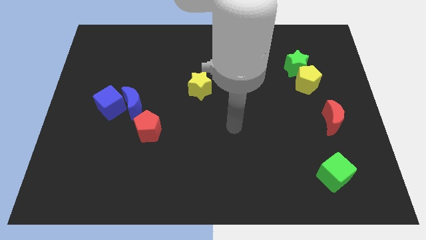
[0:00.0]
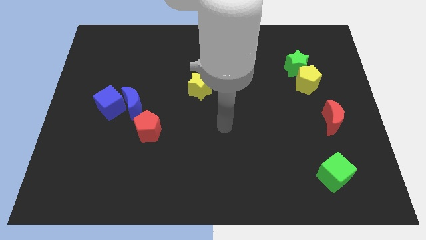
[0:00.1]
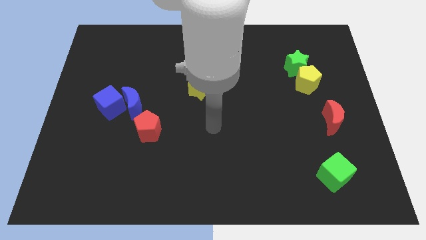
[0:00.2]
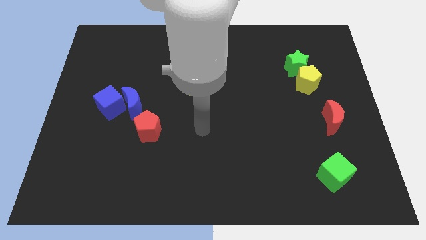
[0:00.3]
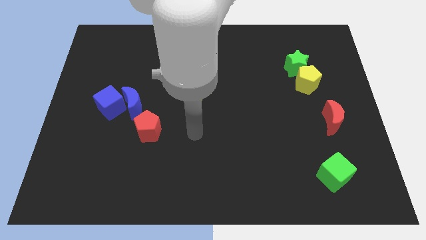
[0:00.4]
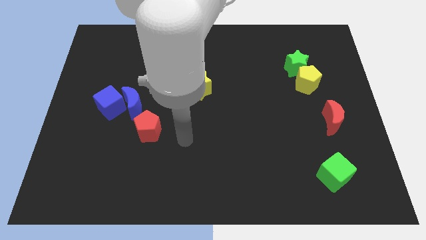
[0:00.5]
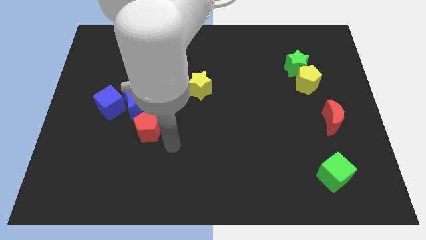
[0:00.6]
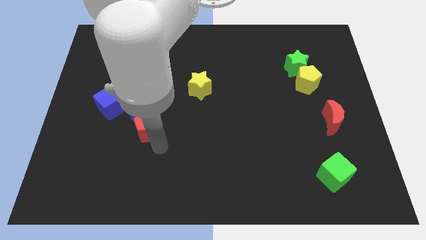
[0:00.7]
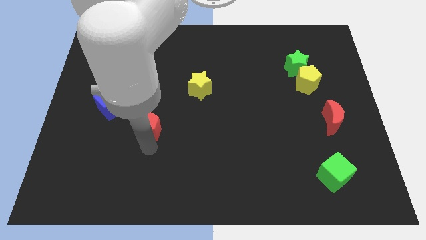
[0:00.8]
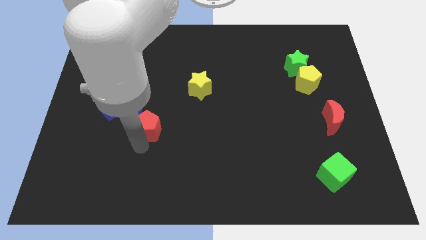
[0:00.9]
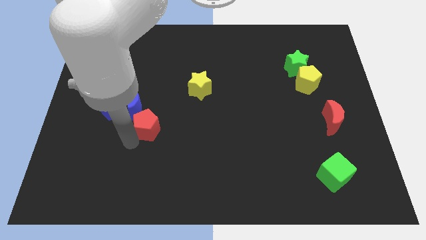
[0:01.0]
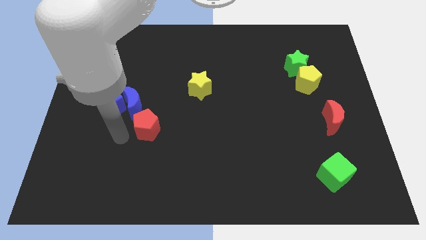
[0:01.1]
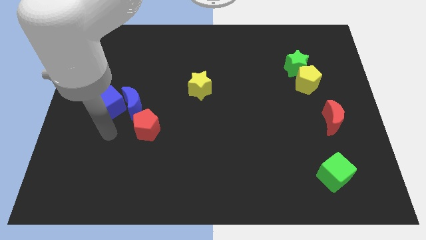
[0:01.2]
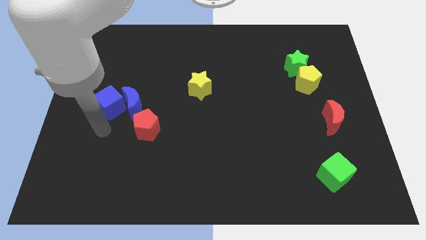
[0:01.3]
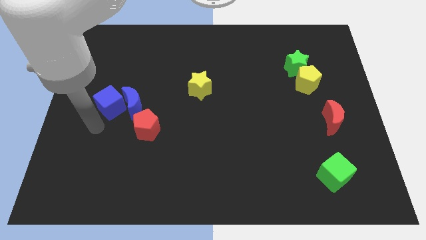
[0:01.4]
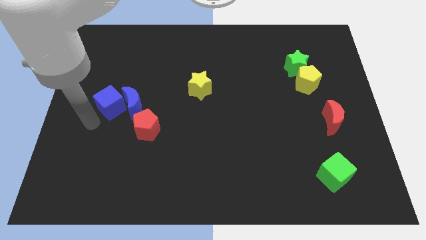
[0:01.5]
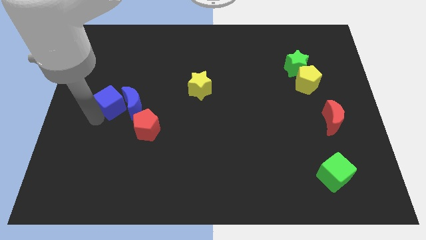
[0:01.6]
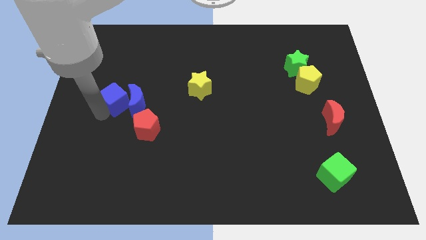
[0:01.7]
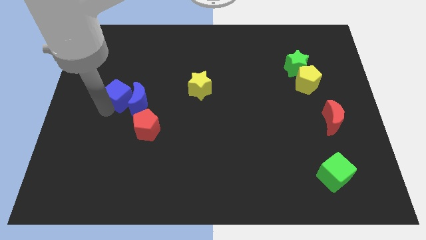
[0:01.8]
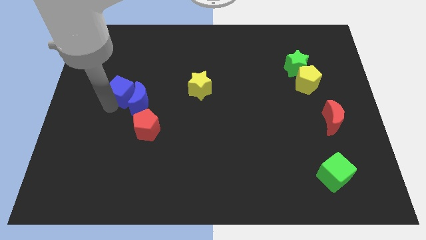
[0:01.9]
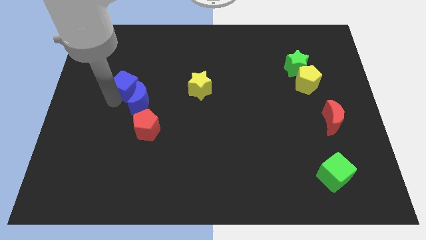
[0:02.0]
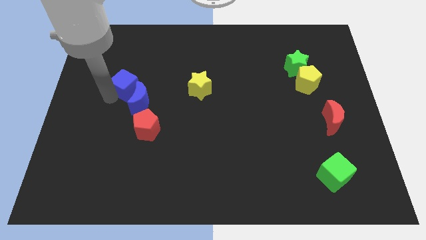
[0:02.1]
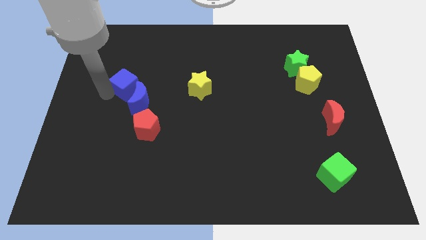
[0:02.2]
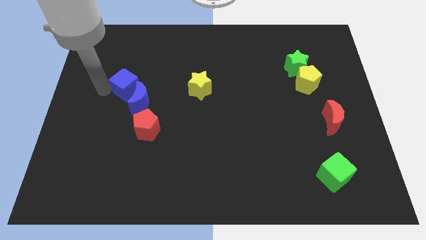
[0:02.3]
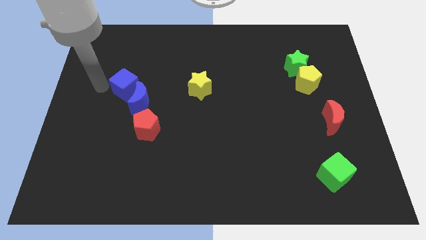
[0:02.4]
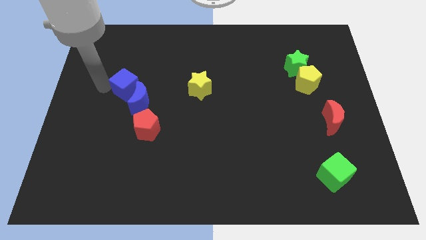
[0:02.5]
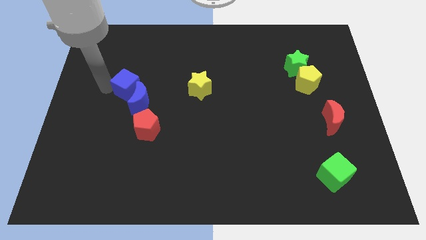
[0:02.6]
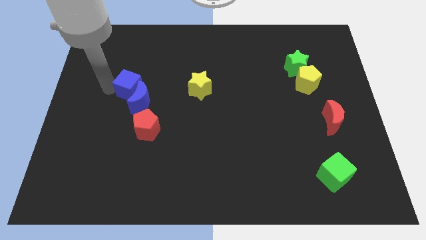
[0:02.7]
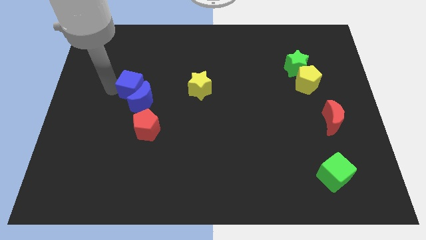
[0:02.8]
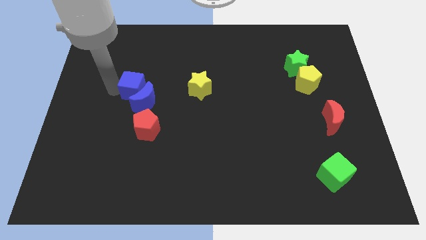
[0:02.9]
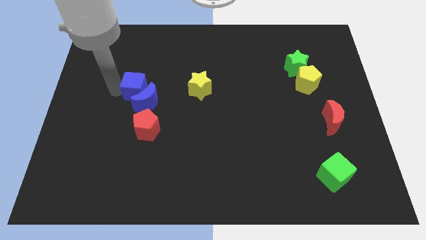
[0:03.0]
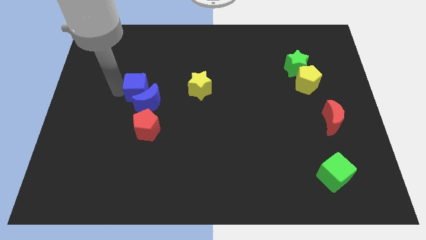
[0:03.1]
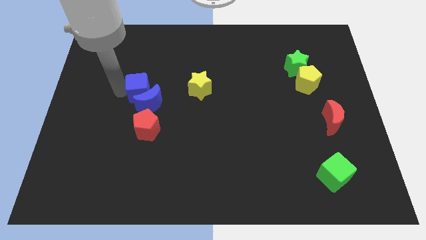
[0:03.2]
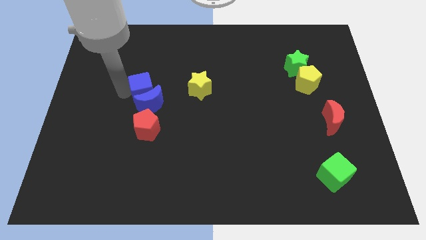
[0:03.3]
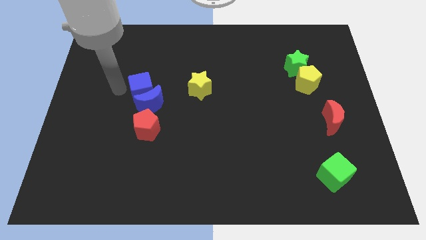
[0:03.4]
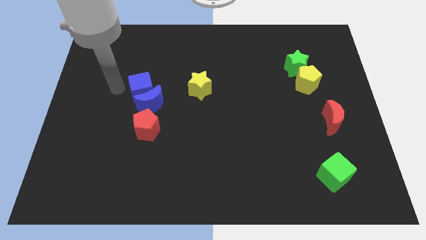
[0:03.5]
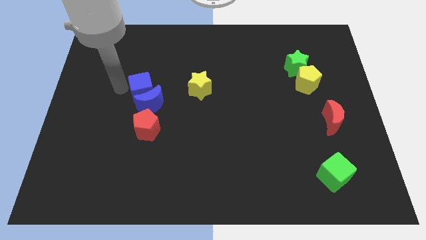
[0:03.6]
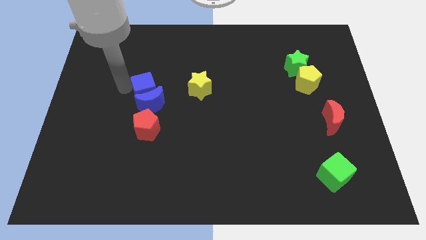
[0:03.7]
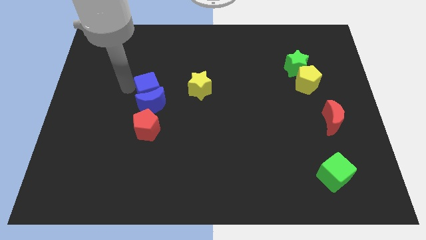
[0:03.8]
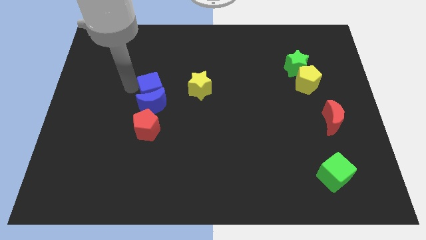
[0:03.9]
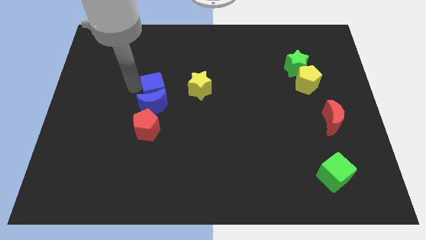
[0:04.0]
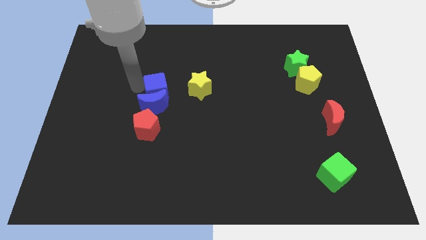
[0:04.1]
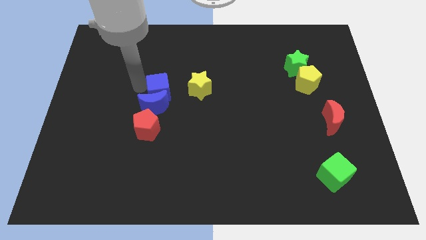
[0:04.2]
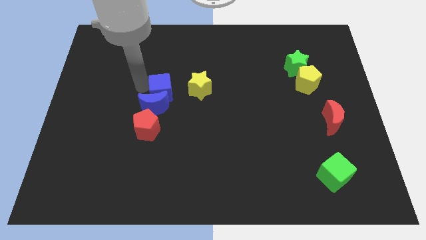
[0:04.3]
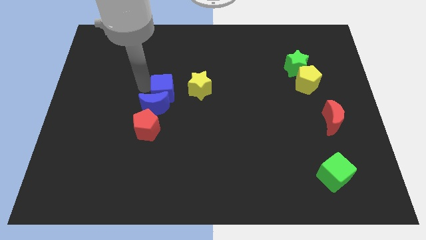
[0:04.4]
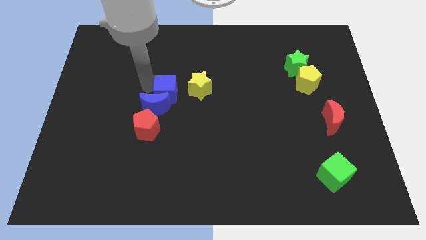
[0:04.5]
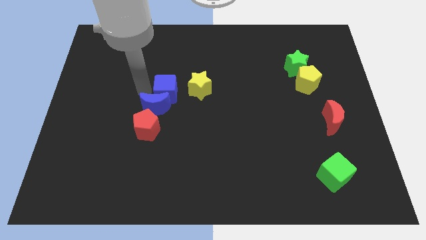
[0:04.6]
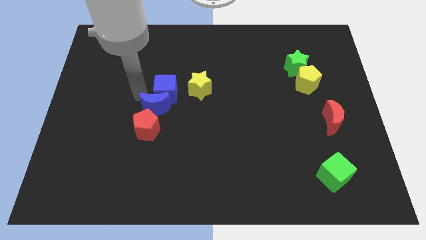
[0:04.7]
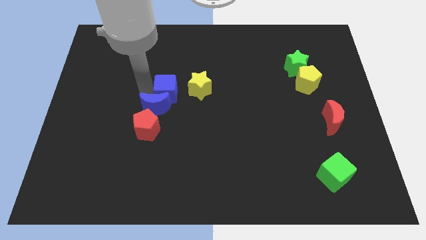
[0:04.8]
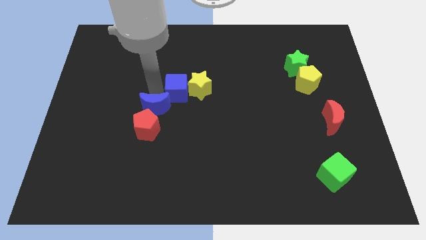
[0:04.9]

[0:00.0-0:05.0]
move the blue cube to the yellow star

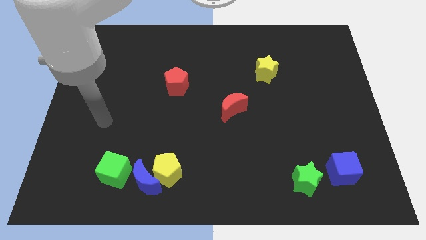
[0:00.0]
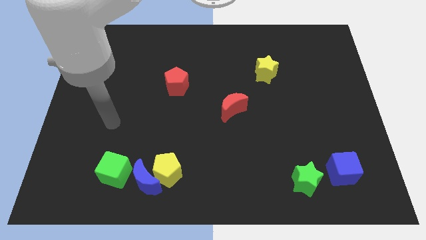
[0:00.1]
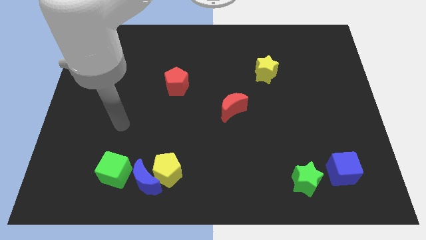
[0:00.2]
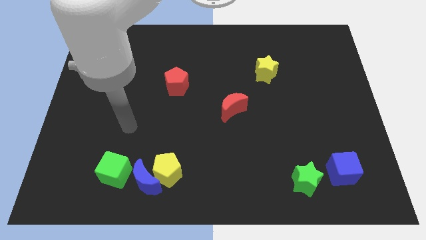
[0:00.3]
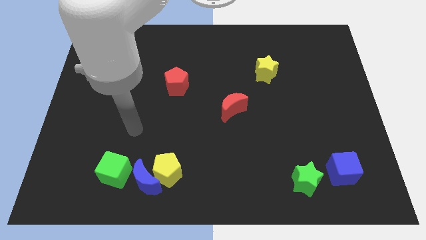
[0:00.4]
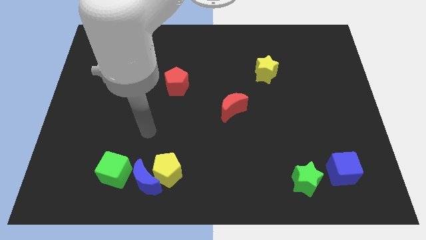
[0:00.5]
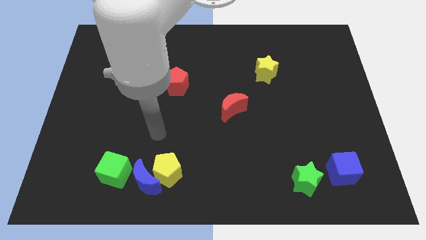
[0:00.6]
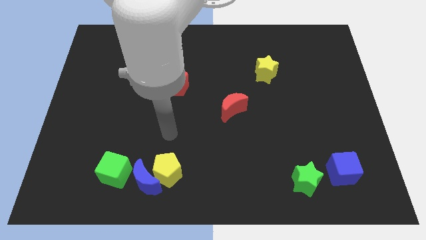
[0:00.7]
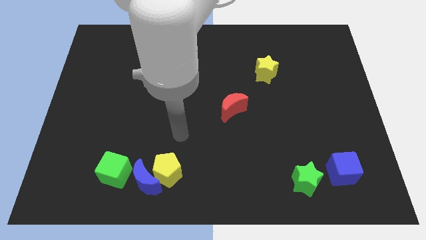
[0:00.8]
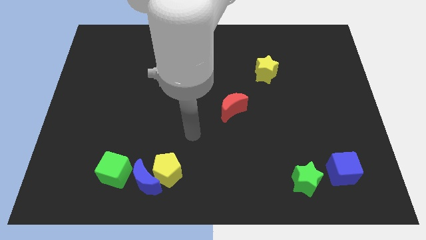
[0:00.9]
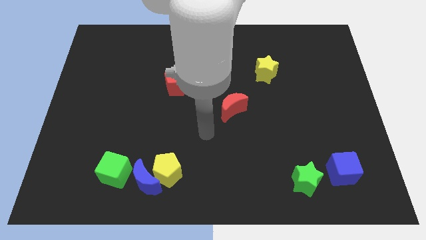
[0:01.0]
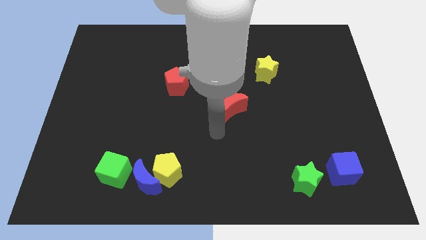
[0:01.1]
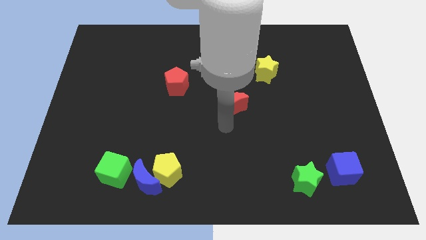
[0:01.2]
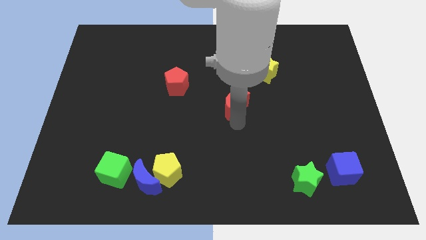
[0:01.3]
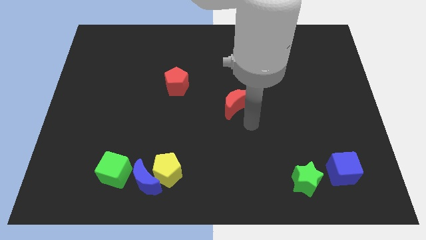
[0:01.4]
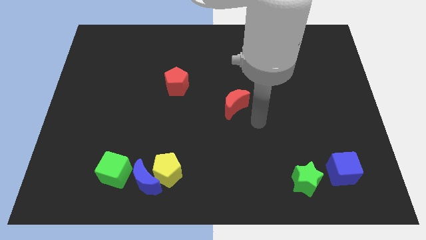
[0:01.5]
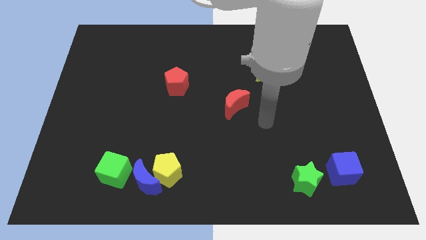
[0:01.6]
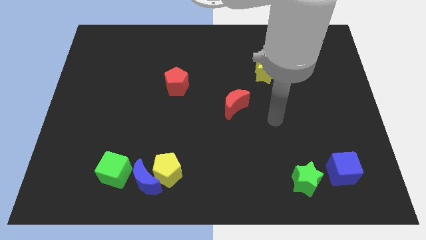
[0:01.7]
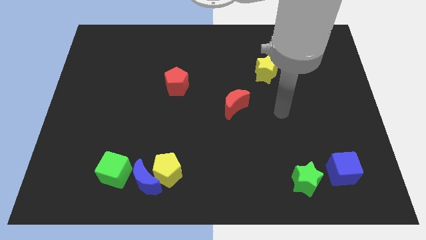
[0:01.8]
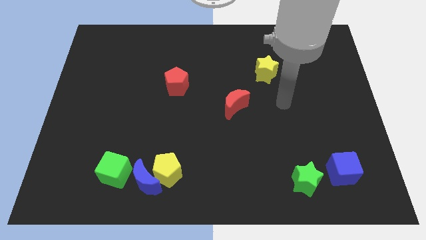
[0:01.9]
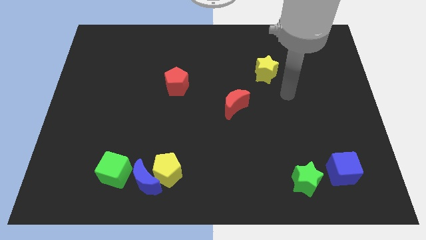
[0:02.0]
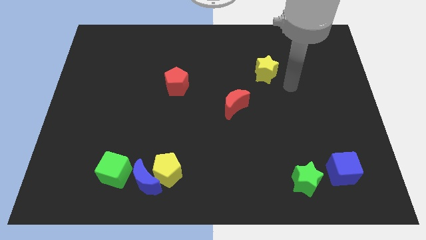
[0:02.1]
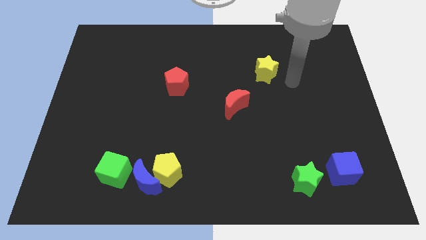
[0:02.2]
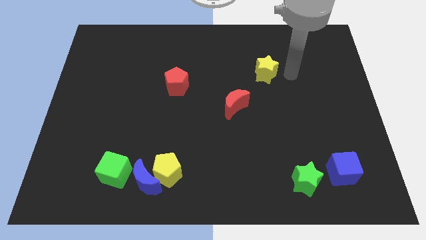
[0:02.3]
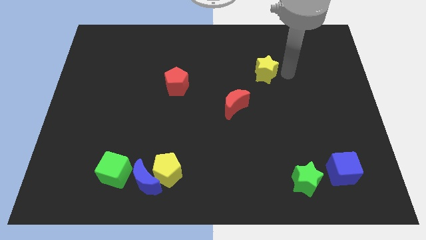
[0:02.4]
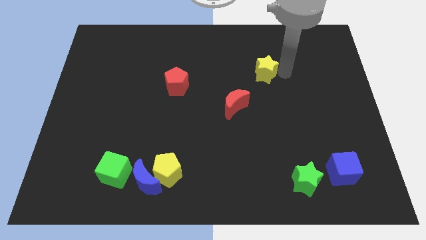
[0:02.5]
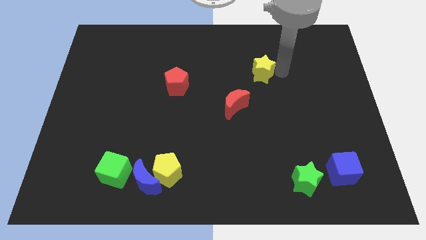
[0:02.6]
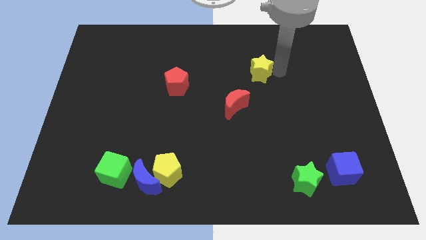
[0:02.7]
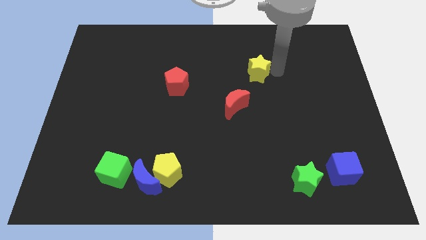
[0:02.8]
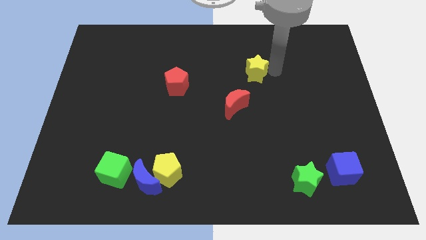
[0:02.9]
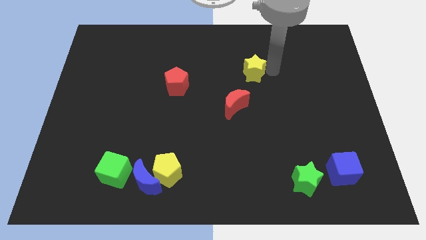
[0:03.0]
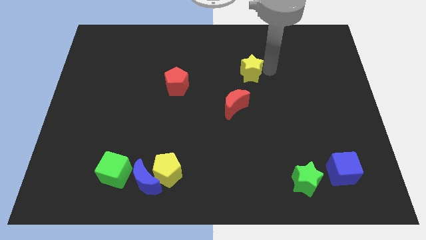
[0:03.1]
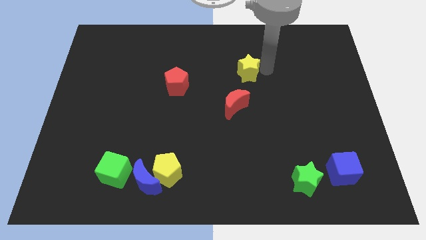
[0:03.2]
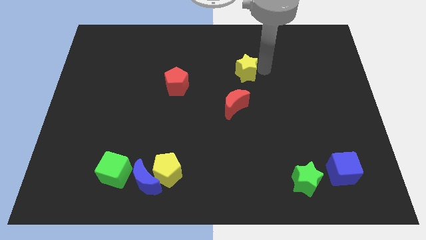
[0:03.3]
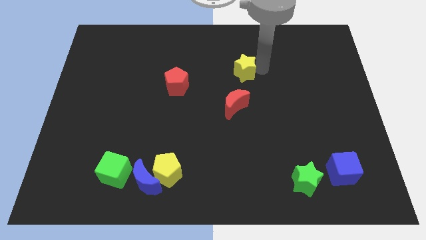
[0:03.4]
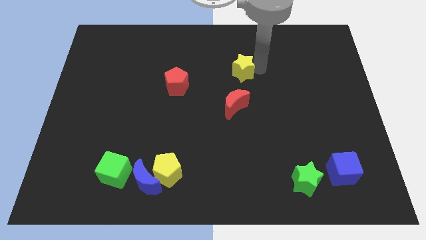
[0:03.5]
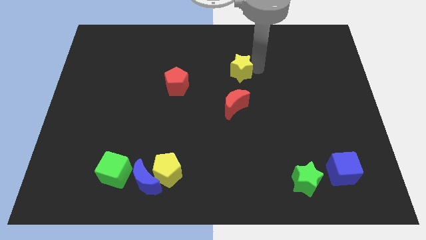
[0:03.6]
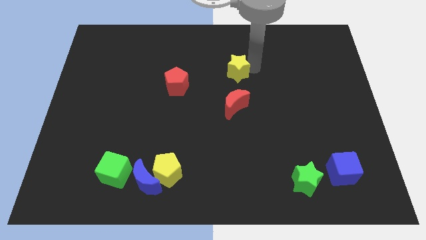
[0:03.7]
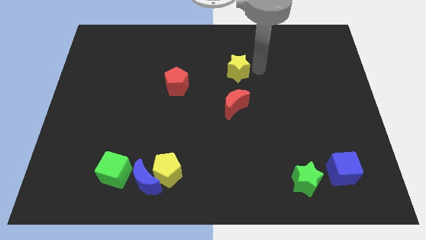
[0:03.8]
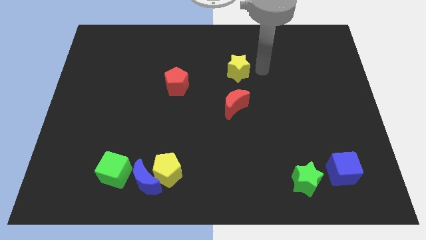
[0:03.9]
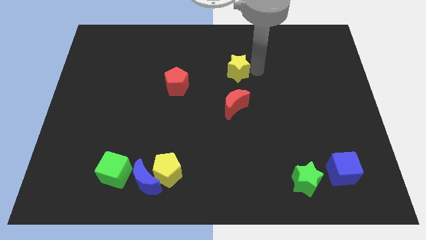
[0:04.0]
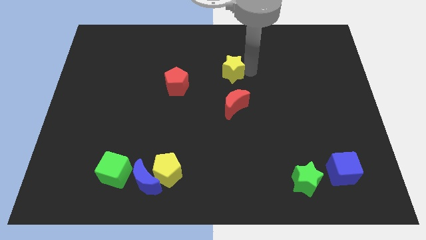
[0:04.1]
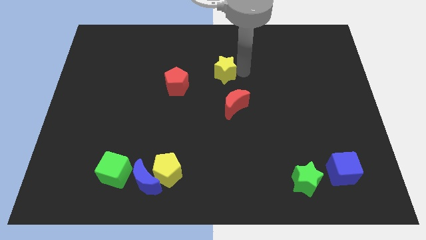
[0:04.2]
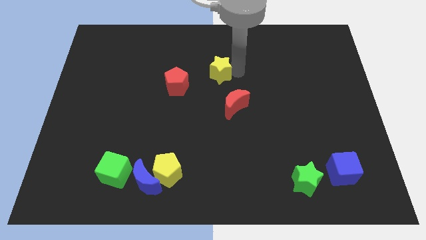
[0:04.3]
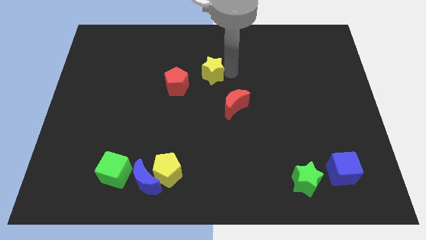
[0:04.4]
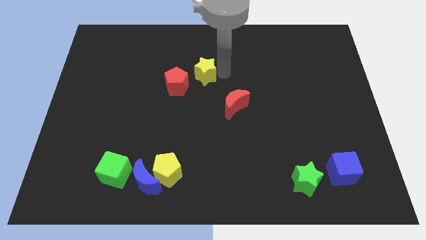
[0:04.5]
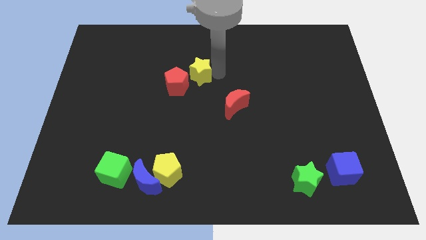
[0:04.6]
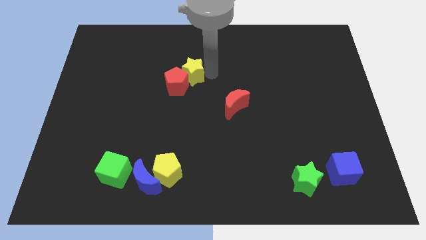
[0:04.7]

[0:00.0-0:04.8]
push the yellow star to the red pentagon
